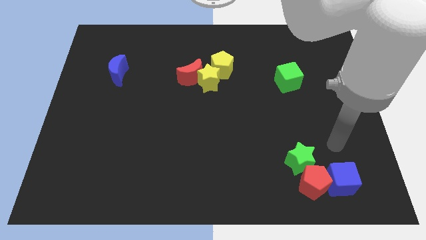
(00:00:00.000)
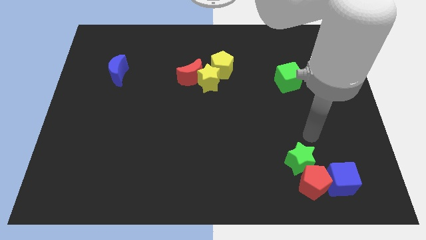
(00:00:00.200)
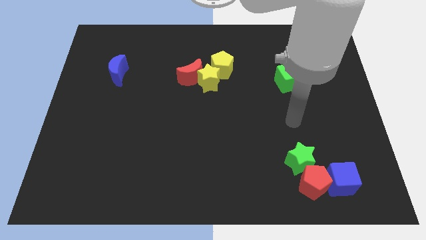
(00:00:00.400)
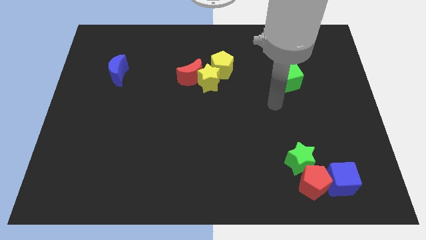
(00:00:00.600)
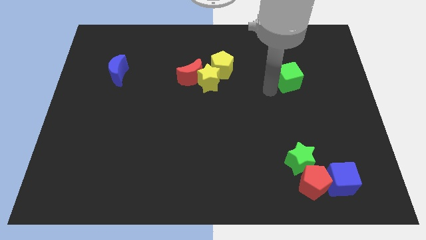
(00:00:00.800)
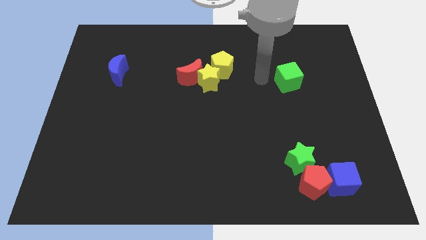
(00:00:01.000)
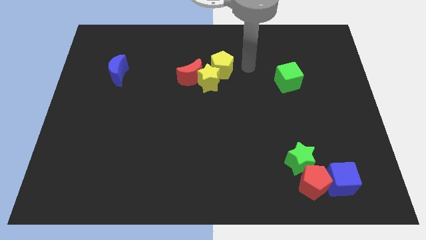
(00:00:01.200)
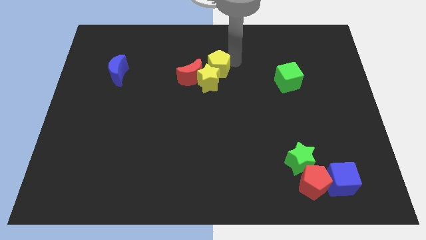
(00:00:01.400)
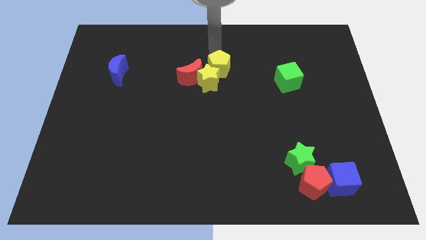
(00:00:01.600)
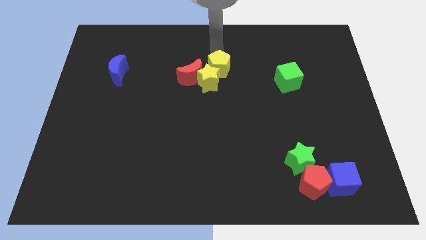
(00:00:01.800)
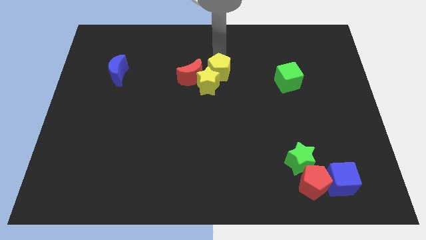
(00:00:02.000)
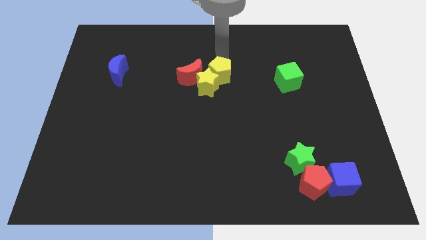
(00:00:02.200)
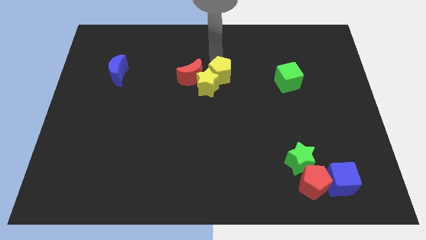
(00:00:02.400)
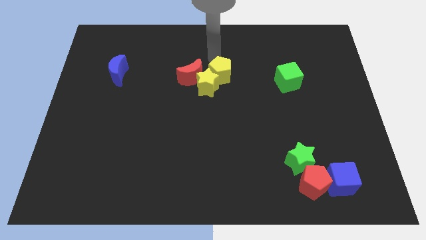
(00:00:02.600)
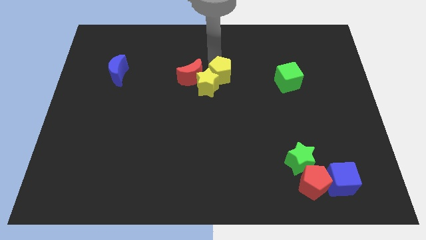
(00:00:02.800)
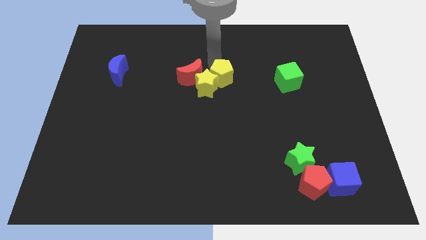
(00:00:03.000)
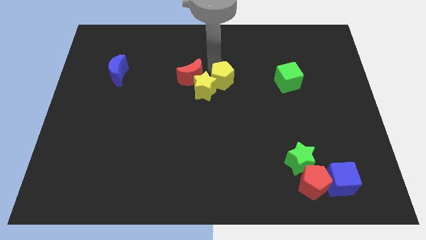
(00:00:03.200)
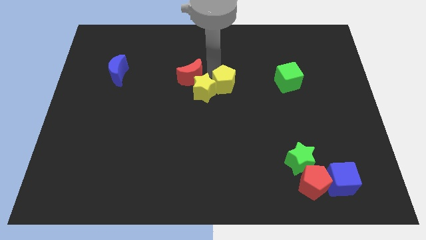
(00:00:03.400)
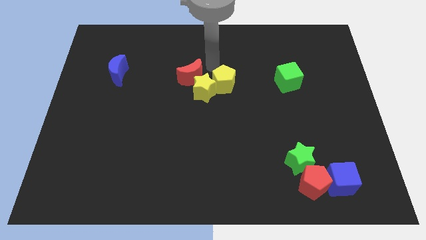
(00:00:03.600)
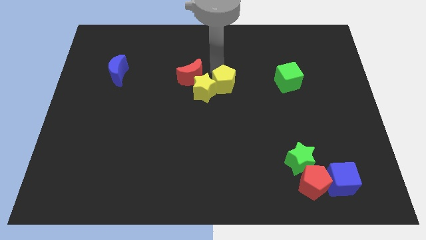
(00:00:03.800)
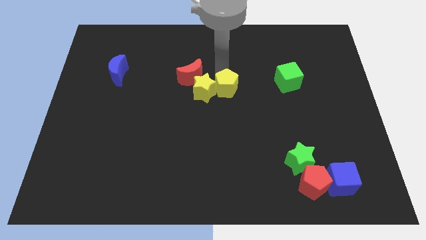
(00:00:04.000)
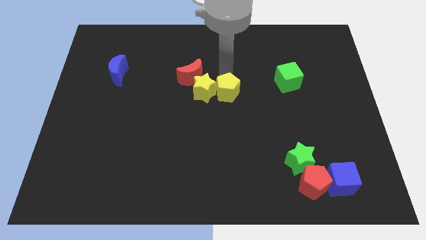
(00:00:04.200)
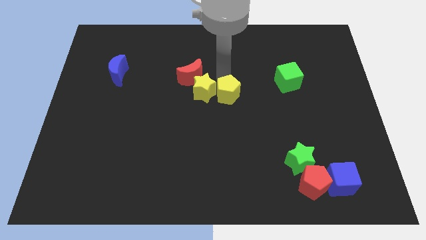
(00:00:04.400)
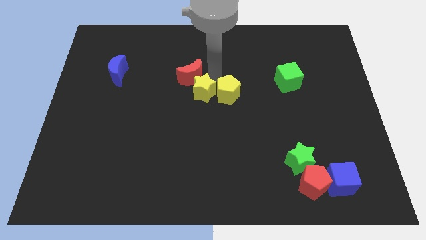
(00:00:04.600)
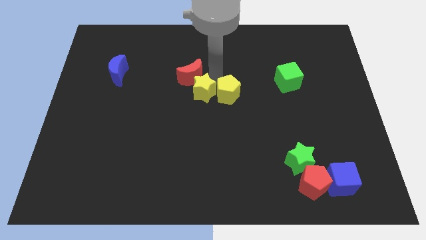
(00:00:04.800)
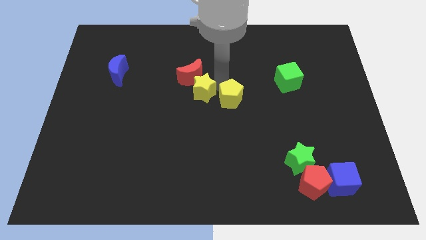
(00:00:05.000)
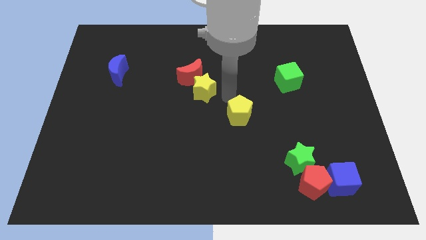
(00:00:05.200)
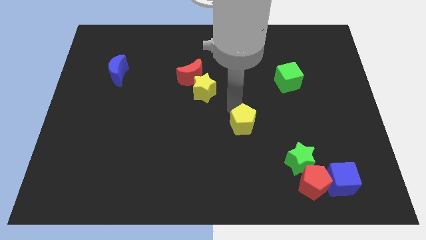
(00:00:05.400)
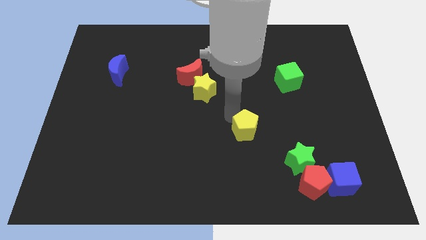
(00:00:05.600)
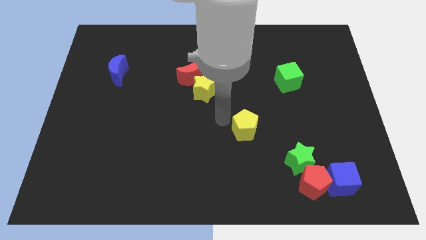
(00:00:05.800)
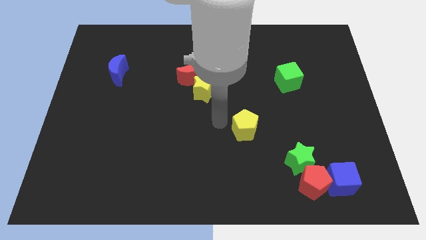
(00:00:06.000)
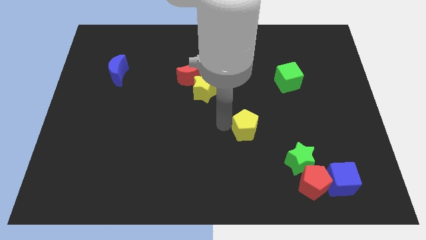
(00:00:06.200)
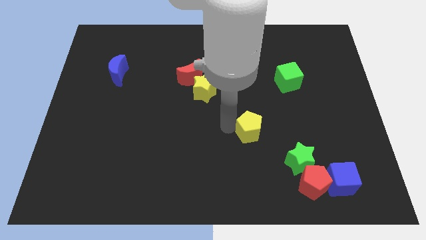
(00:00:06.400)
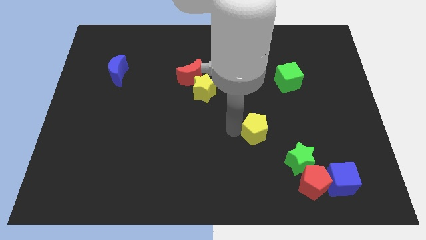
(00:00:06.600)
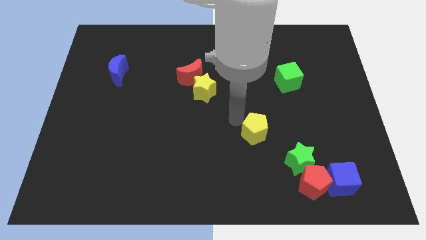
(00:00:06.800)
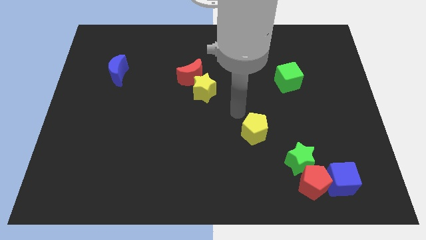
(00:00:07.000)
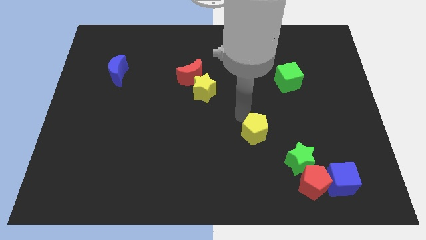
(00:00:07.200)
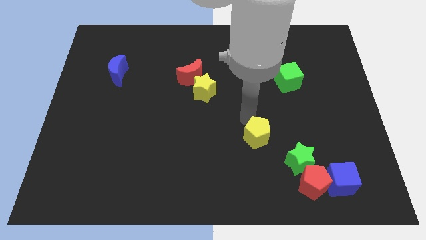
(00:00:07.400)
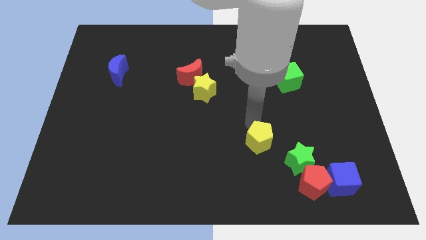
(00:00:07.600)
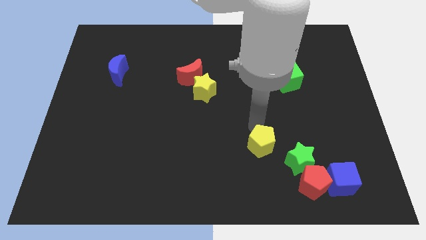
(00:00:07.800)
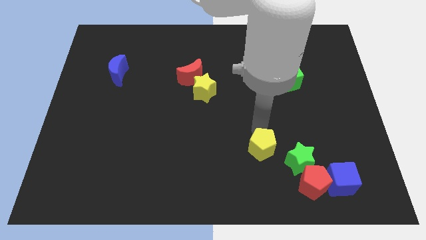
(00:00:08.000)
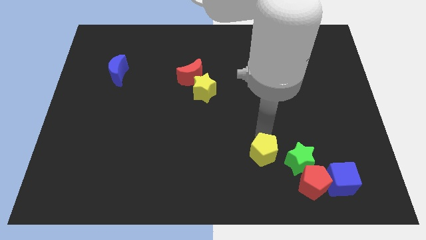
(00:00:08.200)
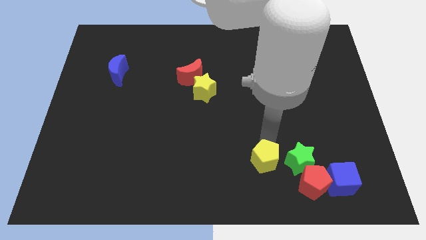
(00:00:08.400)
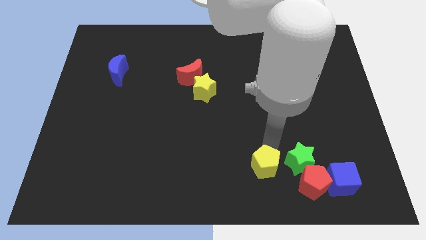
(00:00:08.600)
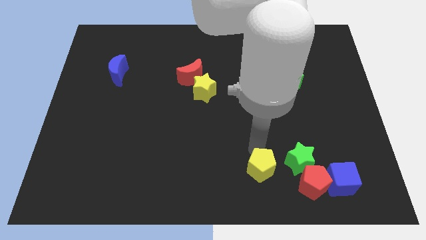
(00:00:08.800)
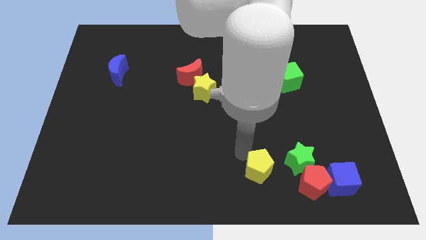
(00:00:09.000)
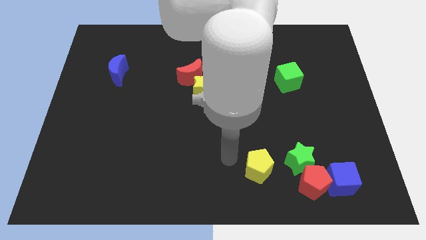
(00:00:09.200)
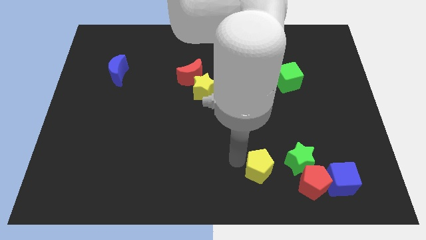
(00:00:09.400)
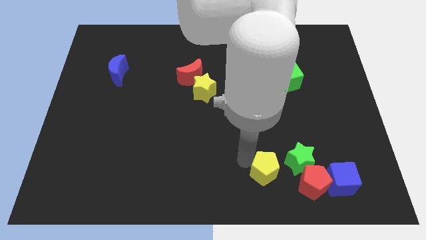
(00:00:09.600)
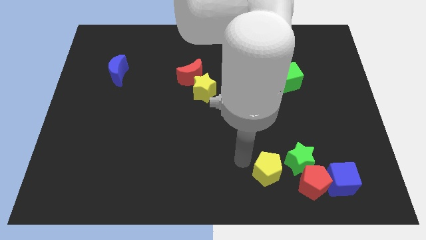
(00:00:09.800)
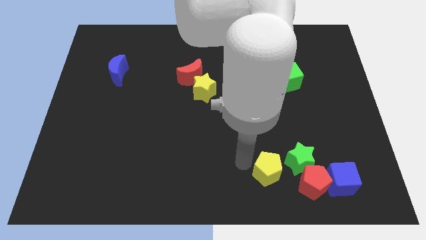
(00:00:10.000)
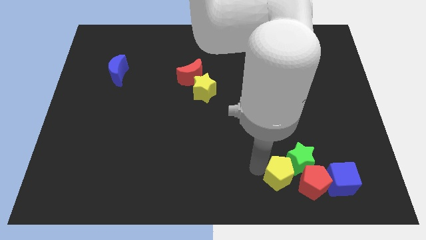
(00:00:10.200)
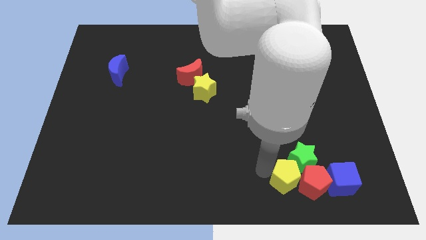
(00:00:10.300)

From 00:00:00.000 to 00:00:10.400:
push the yellow pentagon next to the red pentagon

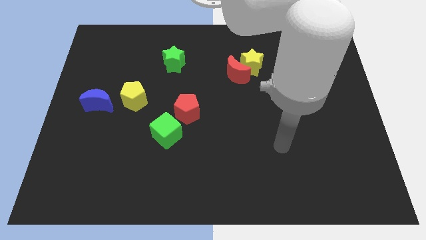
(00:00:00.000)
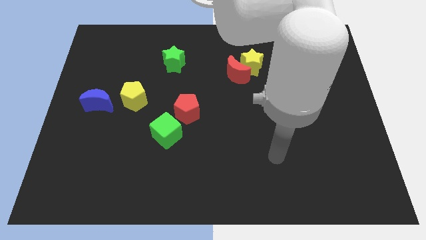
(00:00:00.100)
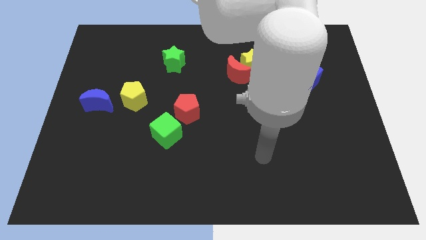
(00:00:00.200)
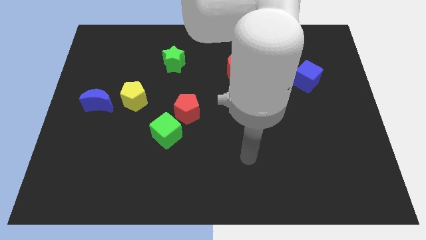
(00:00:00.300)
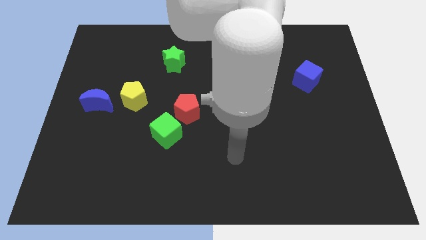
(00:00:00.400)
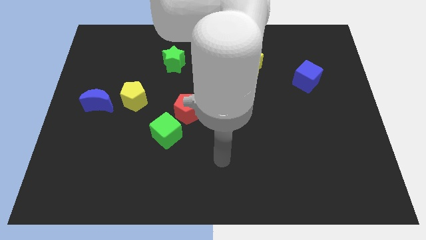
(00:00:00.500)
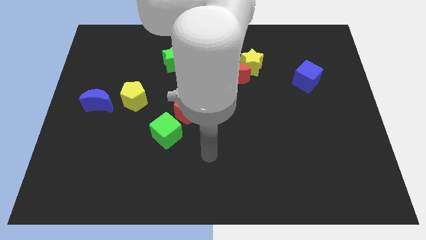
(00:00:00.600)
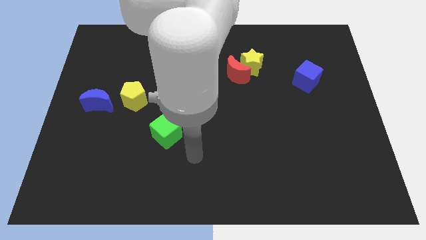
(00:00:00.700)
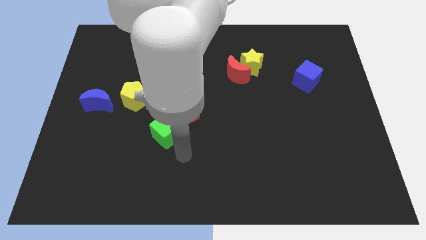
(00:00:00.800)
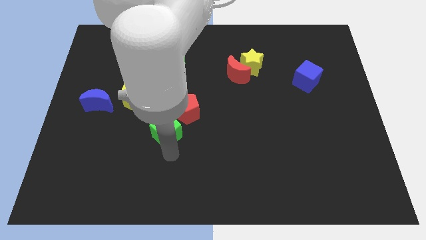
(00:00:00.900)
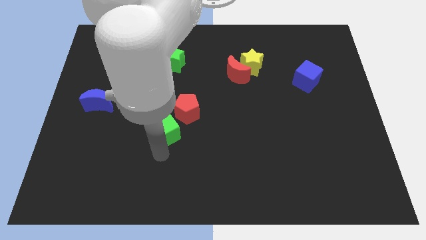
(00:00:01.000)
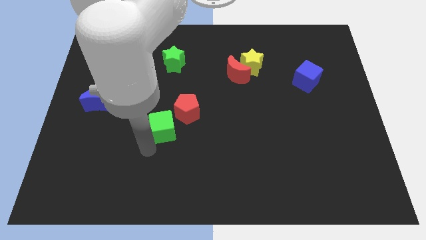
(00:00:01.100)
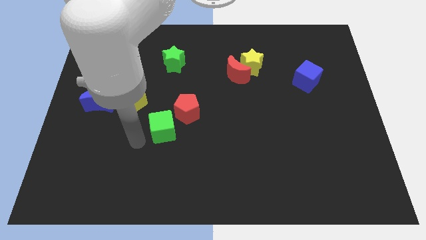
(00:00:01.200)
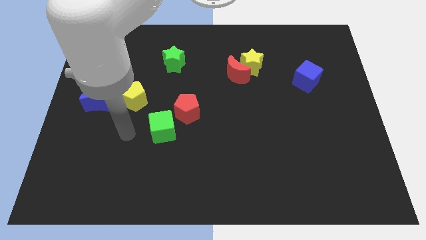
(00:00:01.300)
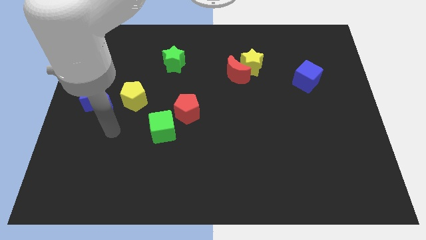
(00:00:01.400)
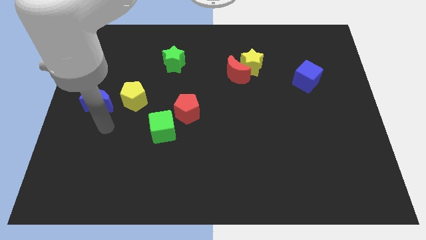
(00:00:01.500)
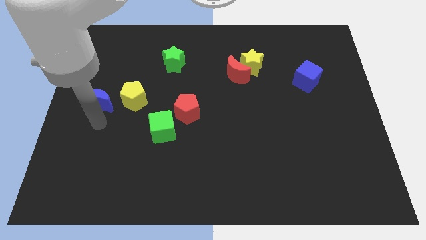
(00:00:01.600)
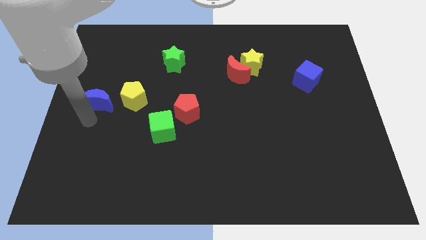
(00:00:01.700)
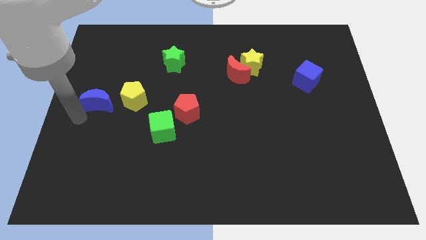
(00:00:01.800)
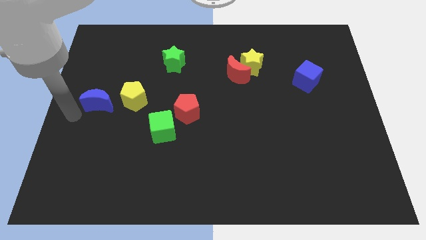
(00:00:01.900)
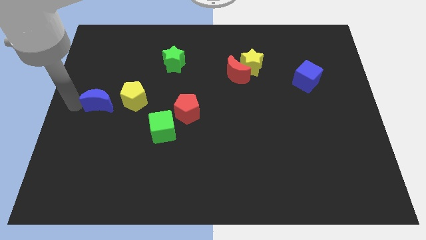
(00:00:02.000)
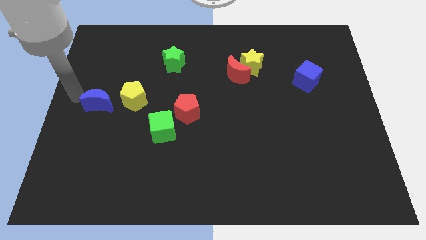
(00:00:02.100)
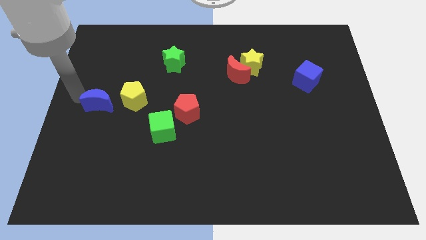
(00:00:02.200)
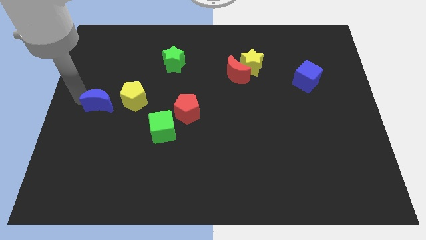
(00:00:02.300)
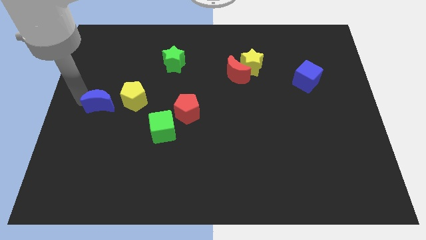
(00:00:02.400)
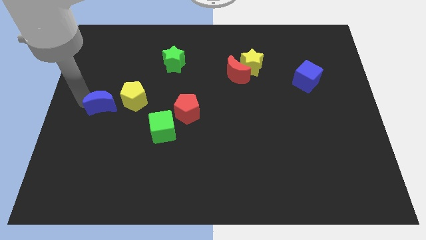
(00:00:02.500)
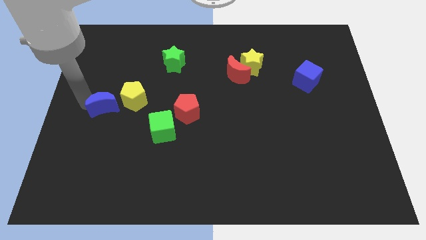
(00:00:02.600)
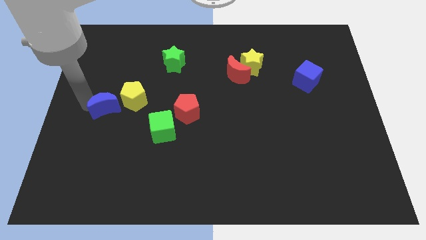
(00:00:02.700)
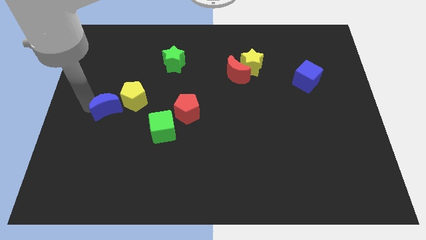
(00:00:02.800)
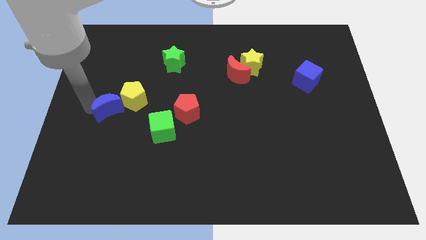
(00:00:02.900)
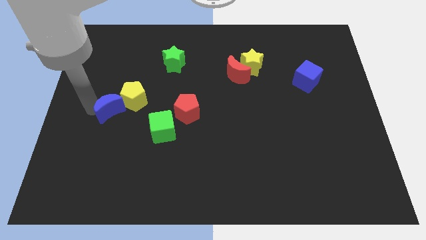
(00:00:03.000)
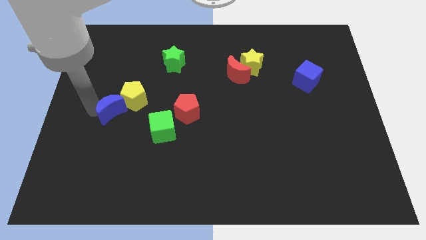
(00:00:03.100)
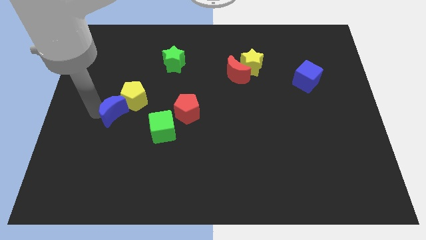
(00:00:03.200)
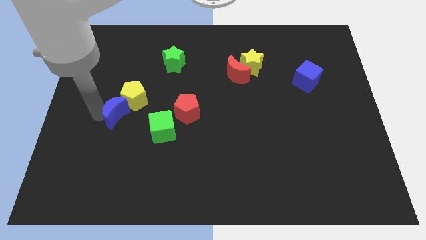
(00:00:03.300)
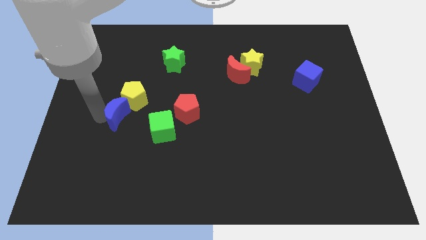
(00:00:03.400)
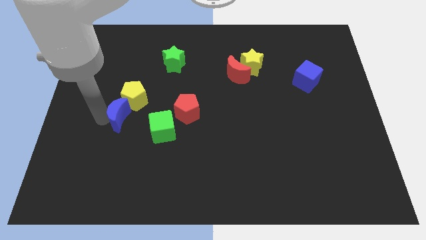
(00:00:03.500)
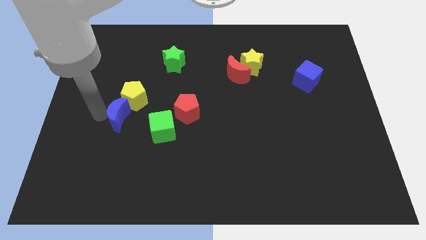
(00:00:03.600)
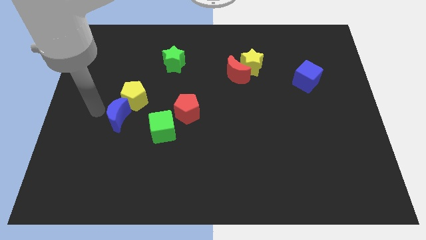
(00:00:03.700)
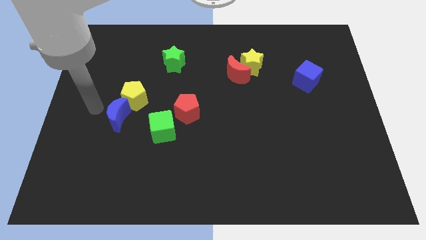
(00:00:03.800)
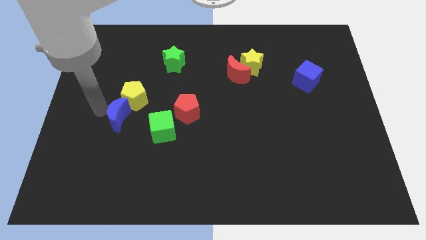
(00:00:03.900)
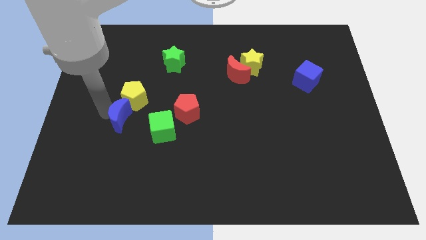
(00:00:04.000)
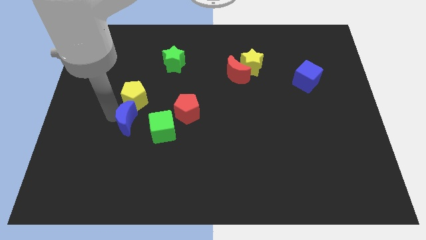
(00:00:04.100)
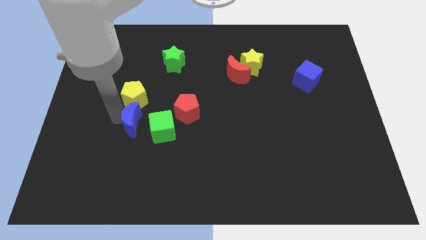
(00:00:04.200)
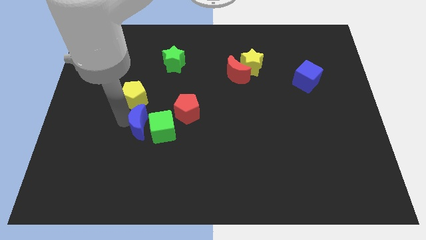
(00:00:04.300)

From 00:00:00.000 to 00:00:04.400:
slide the blue moon close to the green cube
